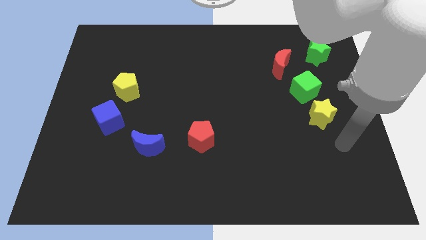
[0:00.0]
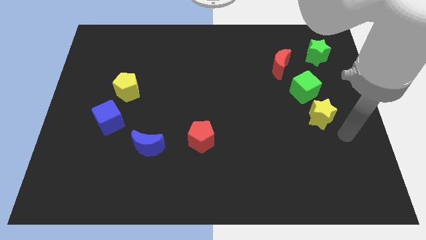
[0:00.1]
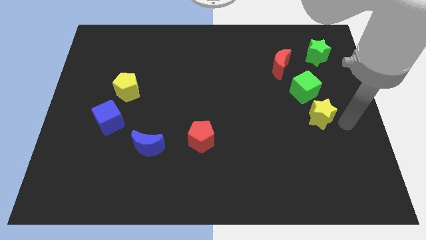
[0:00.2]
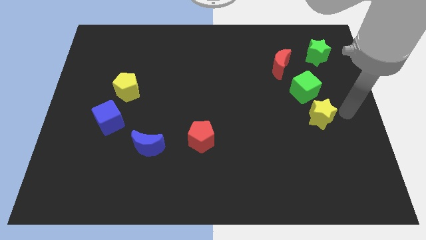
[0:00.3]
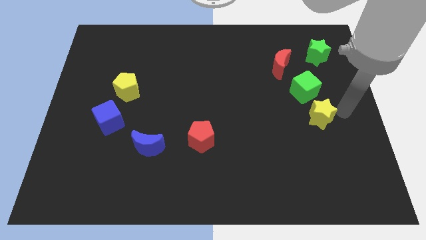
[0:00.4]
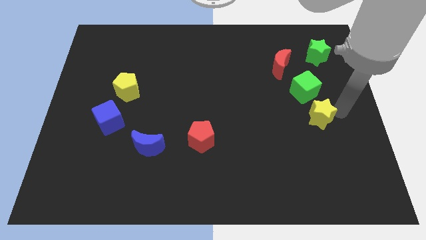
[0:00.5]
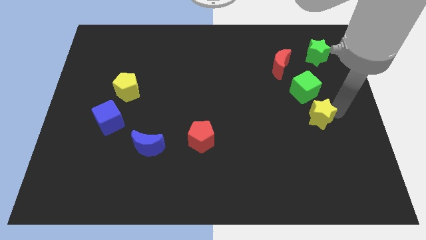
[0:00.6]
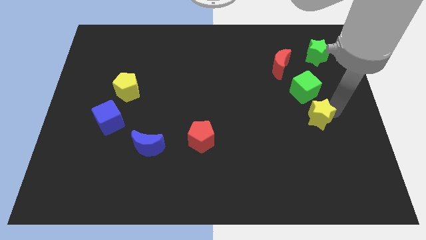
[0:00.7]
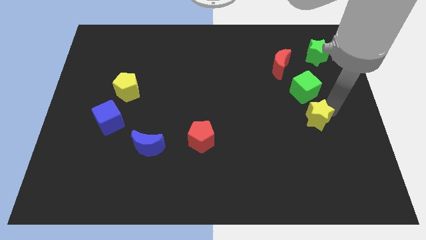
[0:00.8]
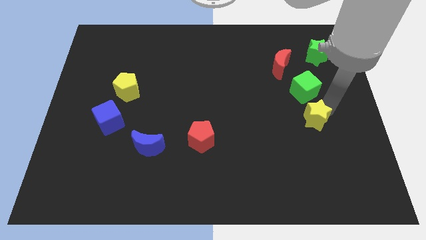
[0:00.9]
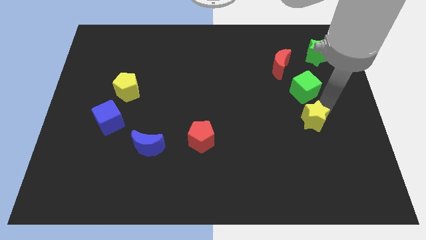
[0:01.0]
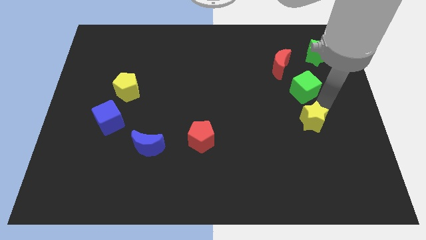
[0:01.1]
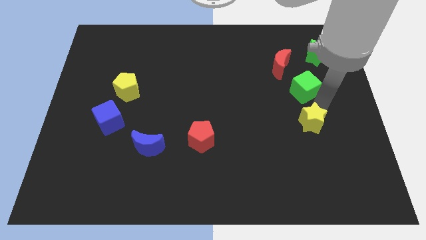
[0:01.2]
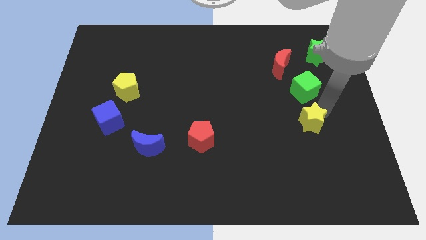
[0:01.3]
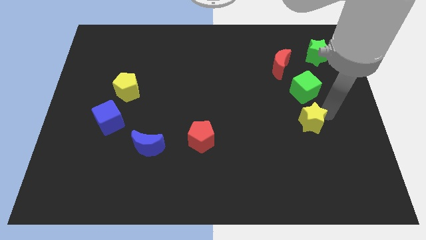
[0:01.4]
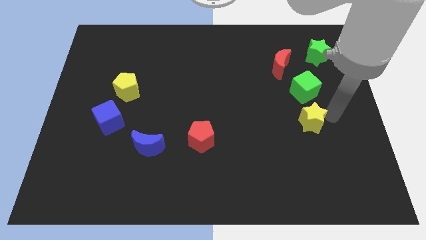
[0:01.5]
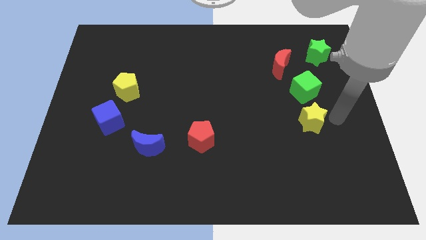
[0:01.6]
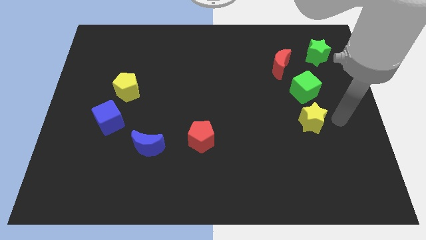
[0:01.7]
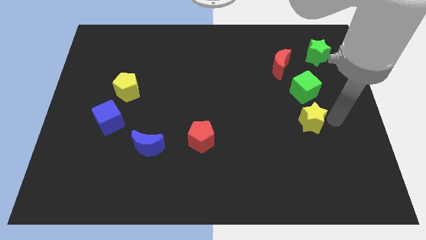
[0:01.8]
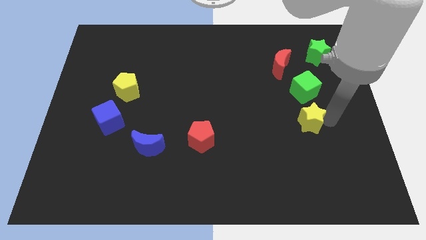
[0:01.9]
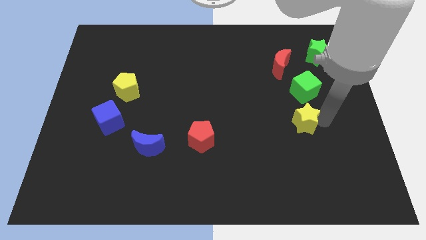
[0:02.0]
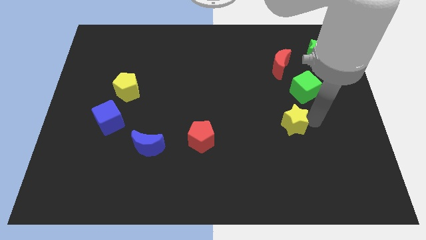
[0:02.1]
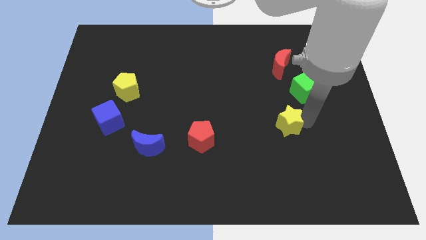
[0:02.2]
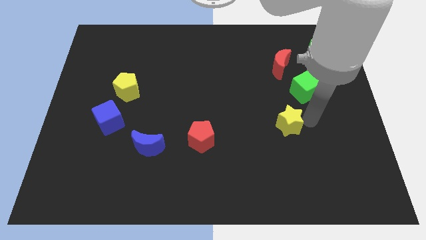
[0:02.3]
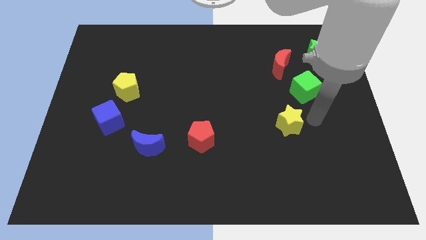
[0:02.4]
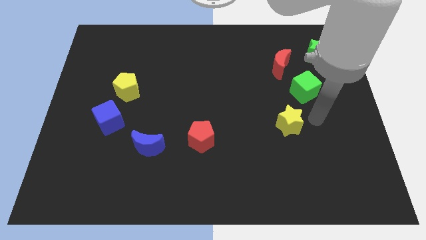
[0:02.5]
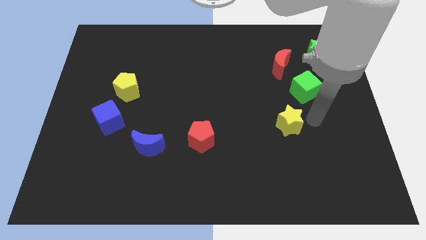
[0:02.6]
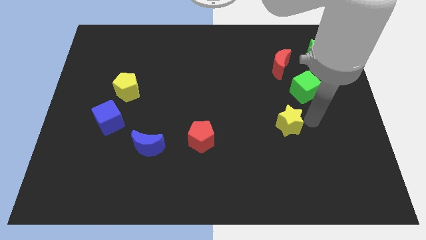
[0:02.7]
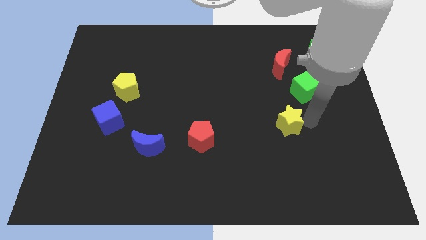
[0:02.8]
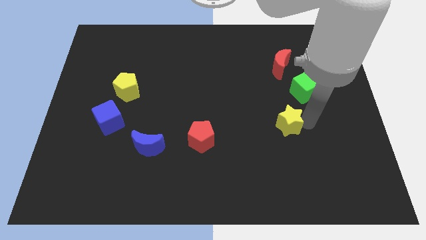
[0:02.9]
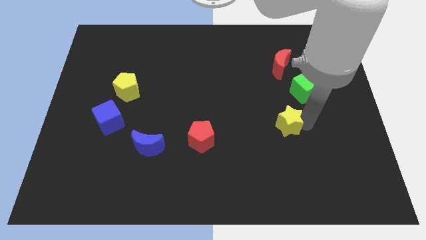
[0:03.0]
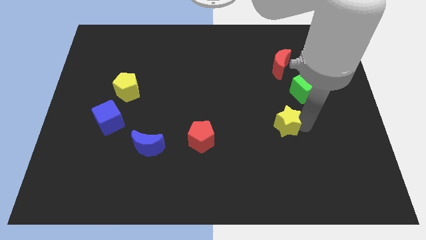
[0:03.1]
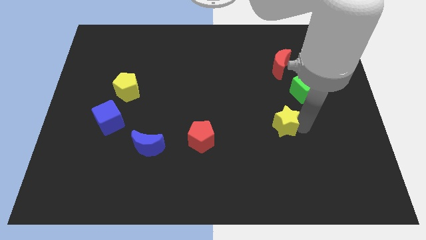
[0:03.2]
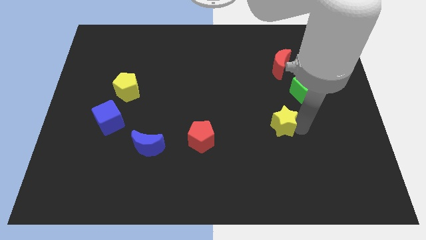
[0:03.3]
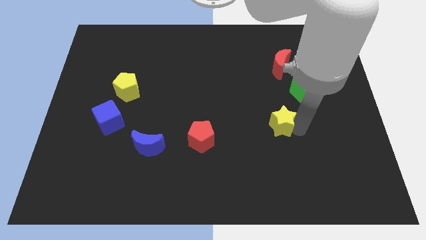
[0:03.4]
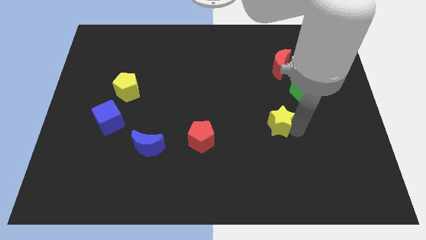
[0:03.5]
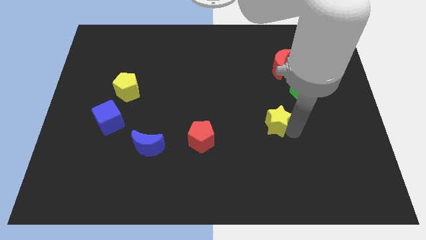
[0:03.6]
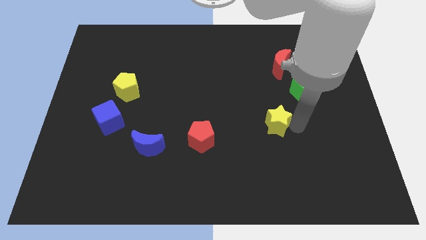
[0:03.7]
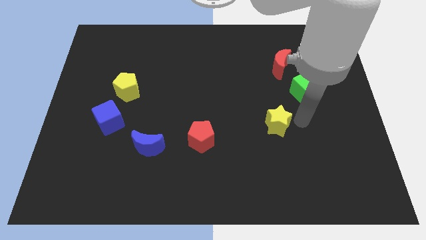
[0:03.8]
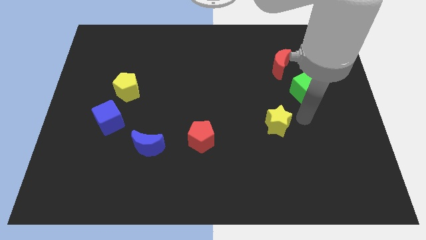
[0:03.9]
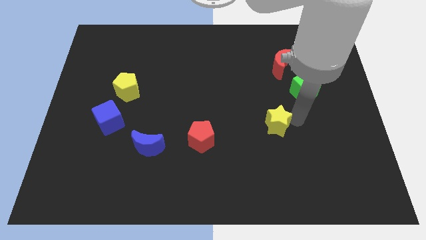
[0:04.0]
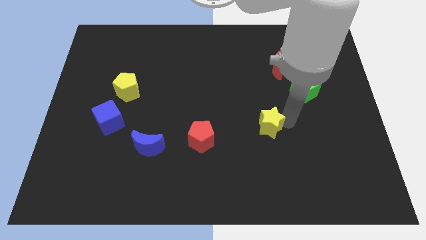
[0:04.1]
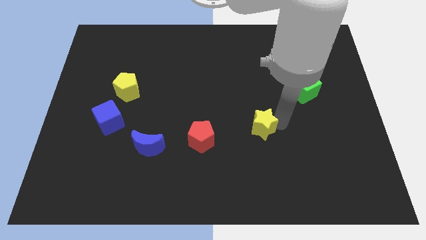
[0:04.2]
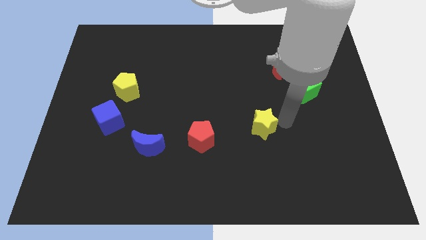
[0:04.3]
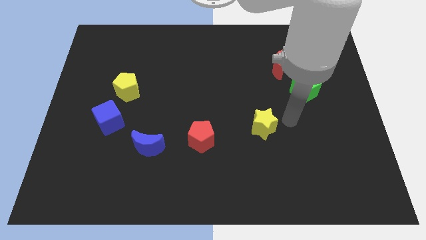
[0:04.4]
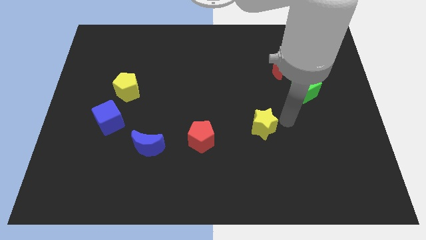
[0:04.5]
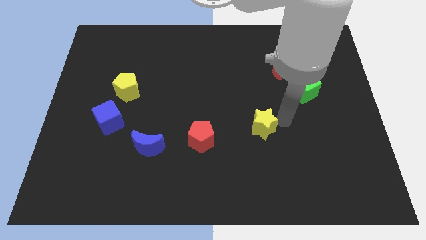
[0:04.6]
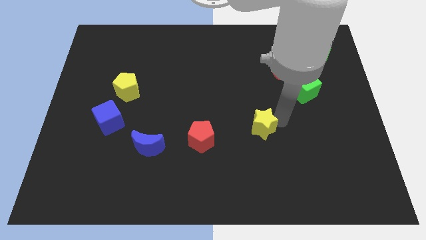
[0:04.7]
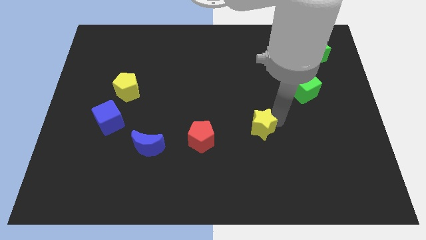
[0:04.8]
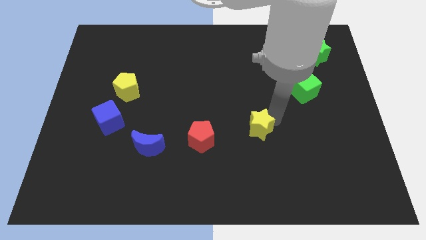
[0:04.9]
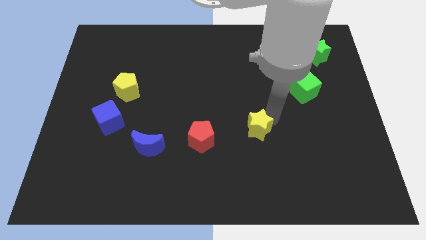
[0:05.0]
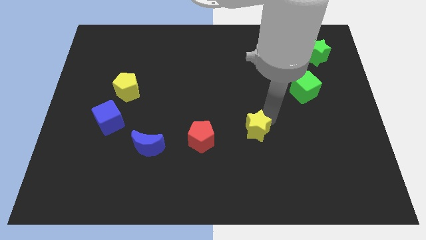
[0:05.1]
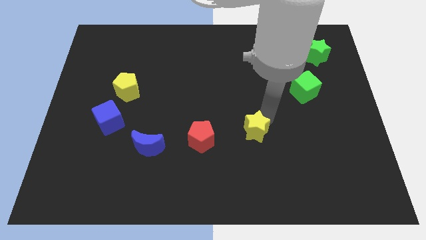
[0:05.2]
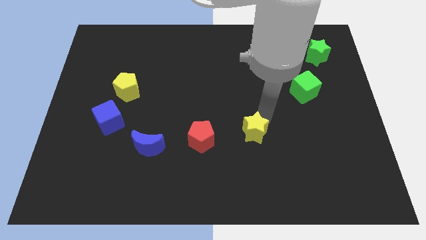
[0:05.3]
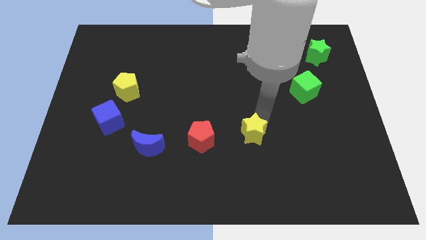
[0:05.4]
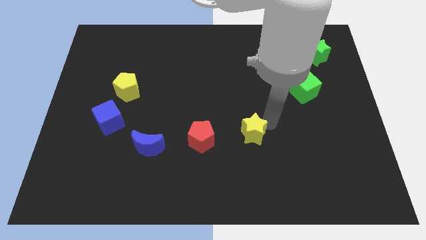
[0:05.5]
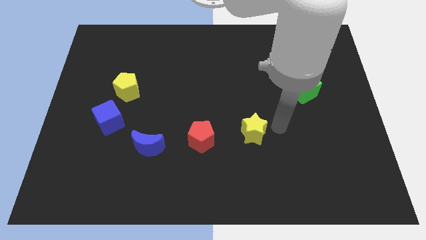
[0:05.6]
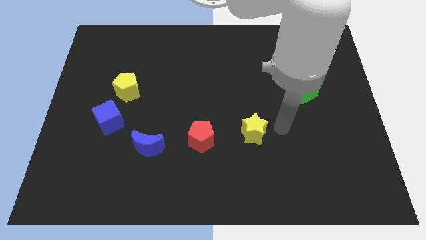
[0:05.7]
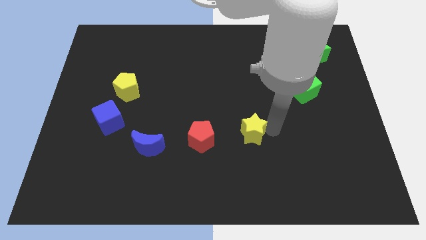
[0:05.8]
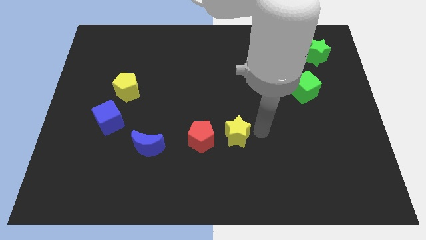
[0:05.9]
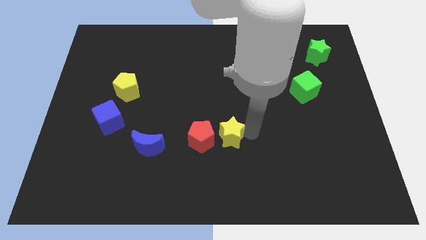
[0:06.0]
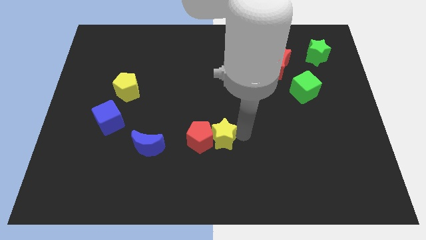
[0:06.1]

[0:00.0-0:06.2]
move the yellow star close to the red pentagon
